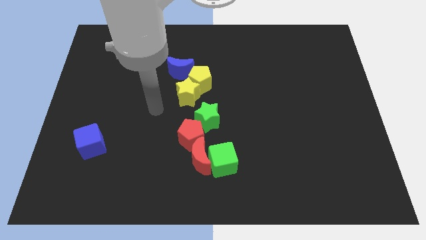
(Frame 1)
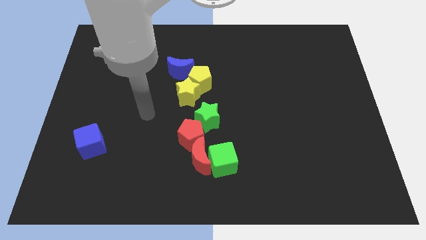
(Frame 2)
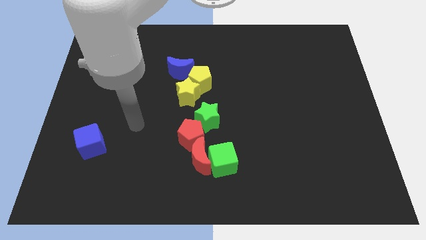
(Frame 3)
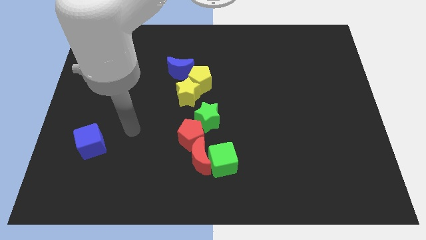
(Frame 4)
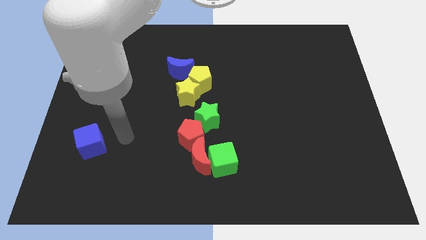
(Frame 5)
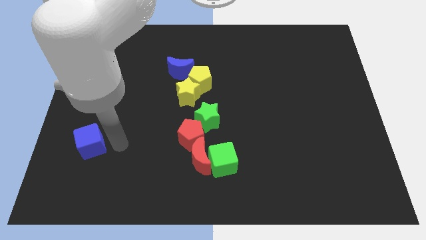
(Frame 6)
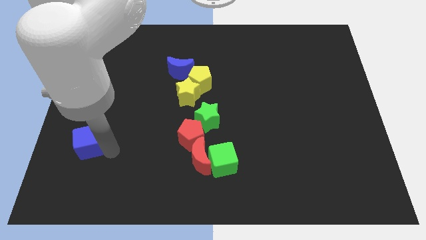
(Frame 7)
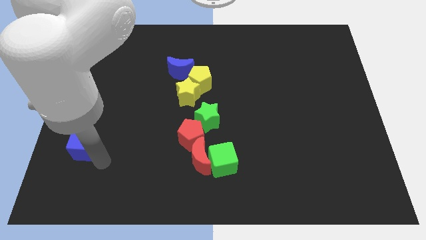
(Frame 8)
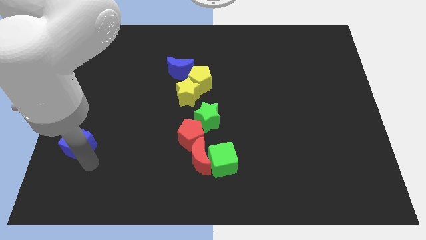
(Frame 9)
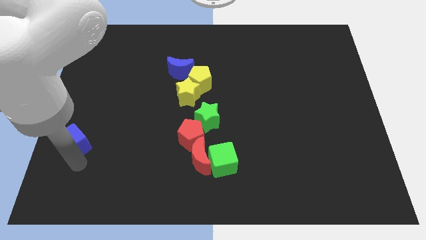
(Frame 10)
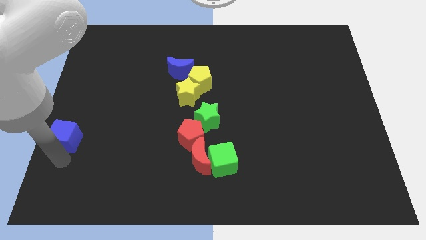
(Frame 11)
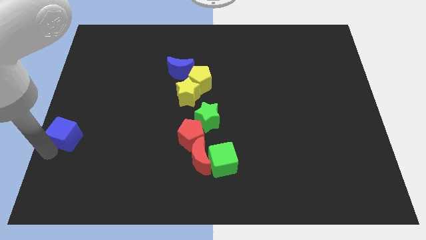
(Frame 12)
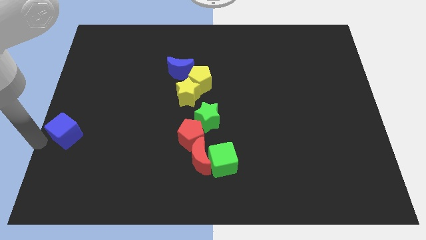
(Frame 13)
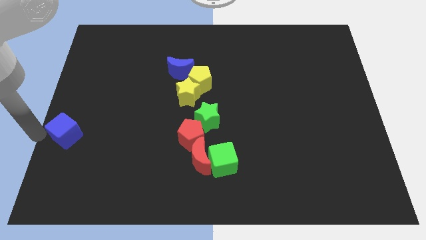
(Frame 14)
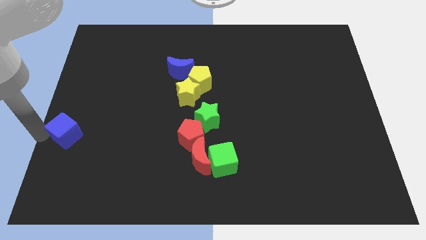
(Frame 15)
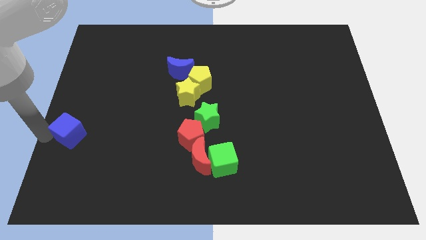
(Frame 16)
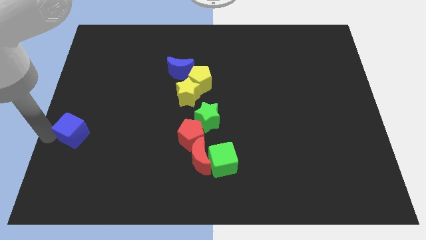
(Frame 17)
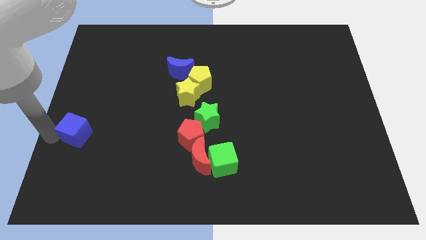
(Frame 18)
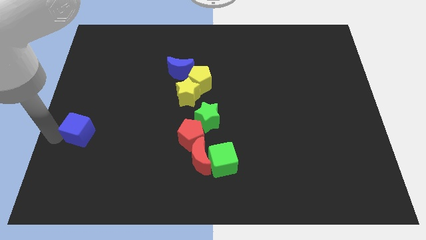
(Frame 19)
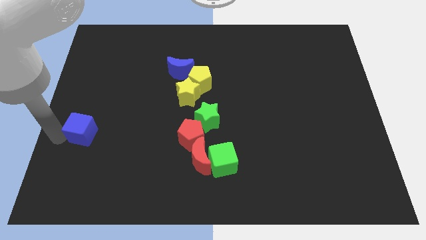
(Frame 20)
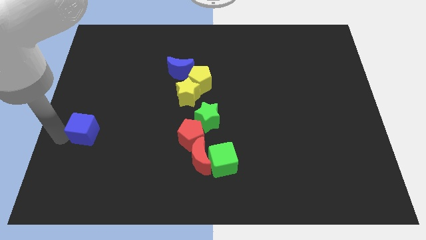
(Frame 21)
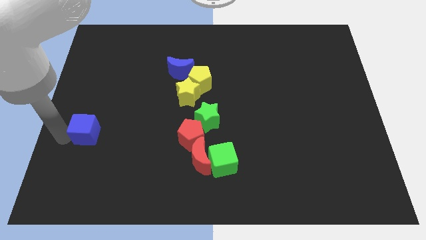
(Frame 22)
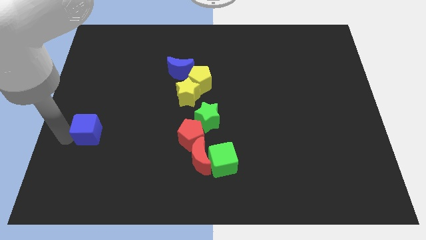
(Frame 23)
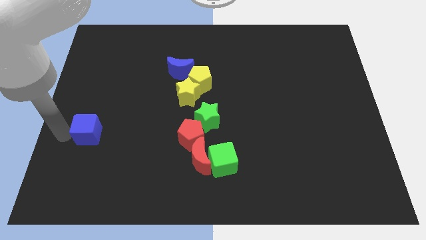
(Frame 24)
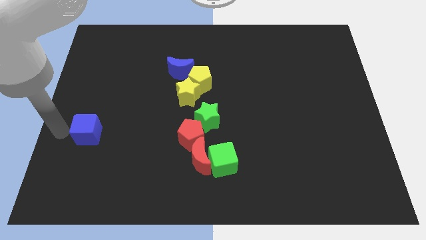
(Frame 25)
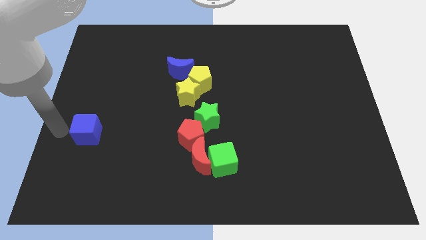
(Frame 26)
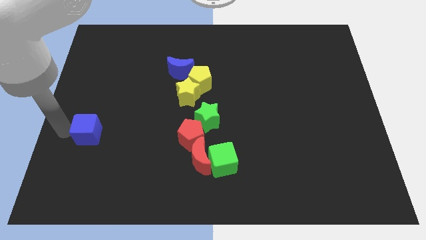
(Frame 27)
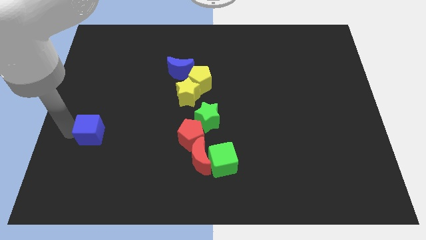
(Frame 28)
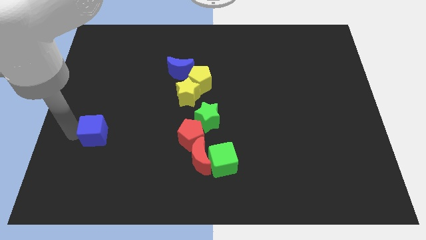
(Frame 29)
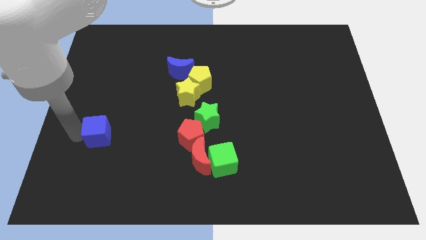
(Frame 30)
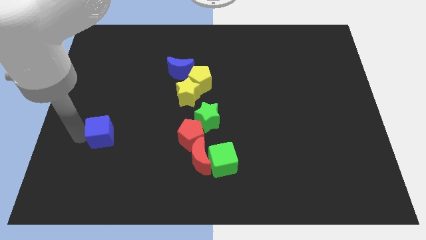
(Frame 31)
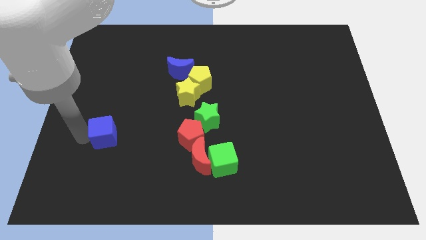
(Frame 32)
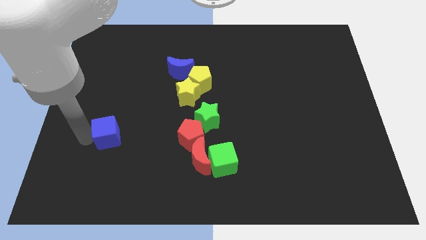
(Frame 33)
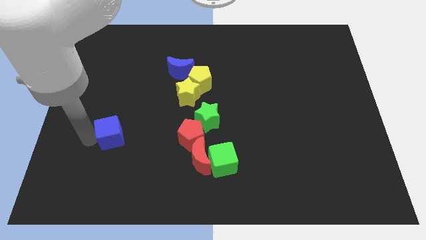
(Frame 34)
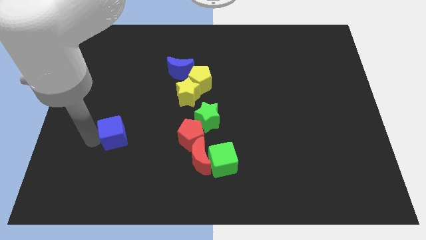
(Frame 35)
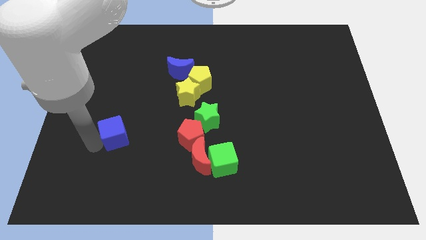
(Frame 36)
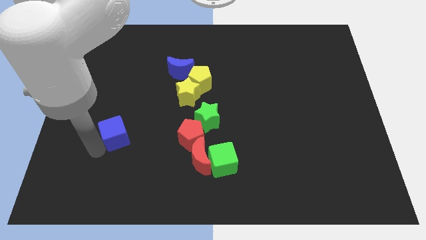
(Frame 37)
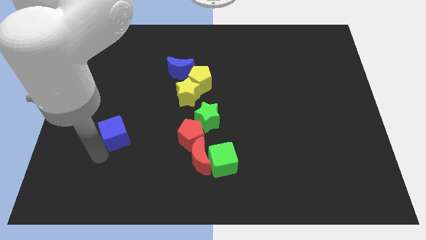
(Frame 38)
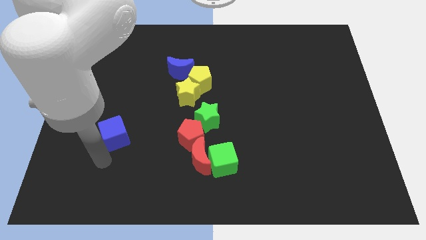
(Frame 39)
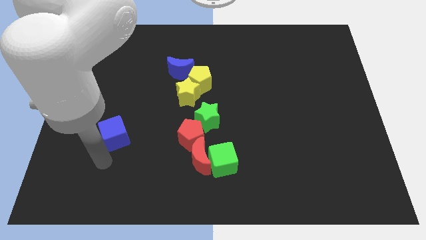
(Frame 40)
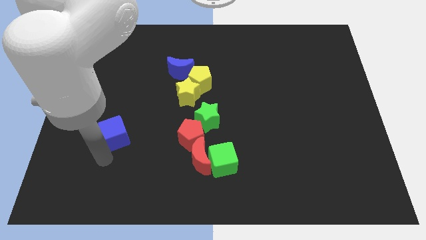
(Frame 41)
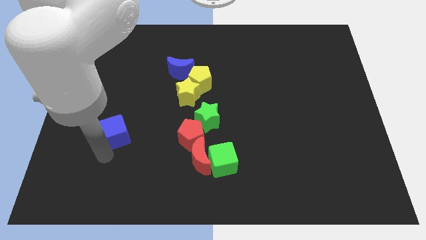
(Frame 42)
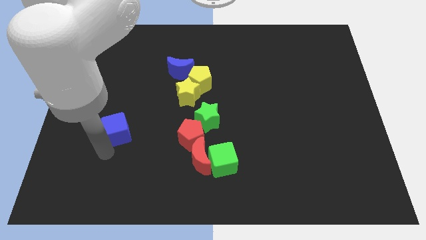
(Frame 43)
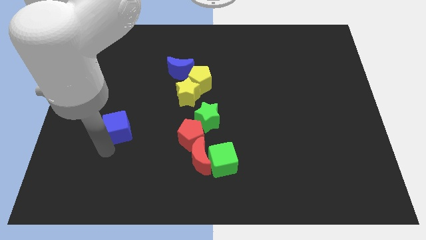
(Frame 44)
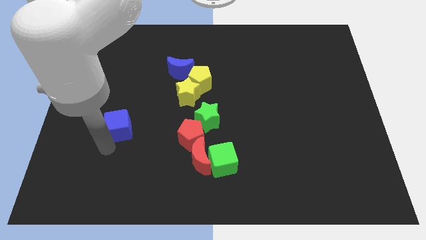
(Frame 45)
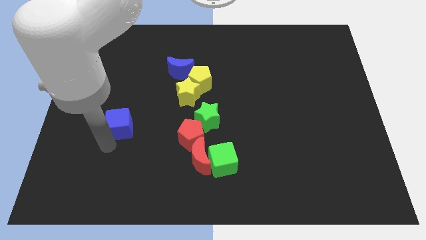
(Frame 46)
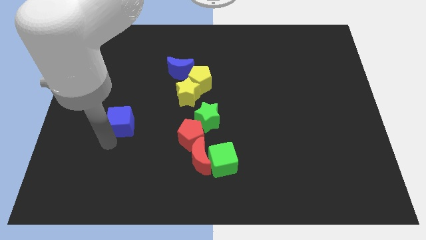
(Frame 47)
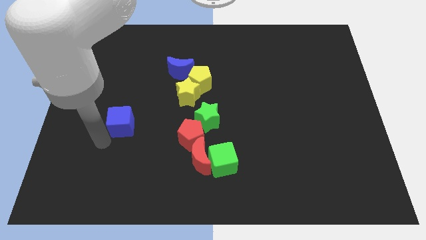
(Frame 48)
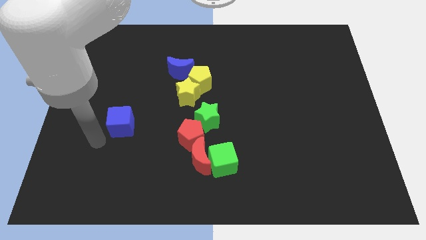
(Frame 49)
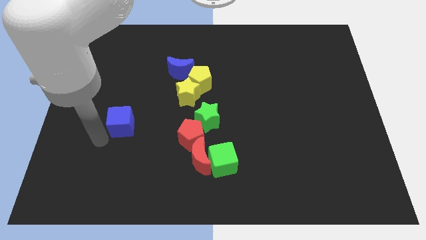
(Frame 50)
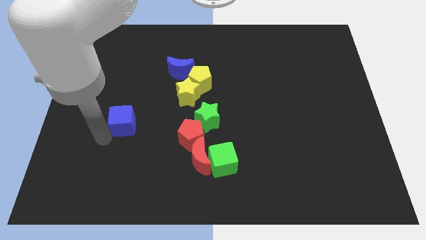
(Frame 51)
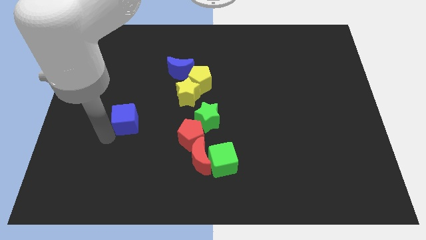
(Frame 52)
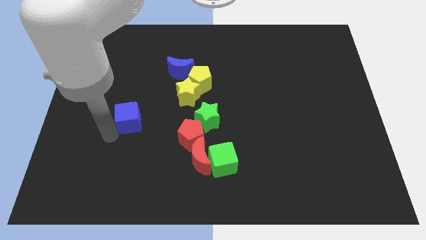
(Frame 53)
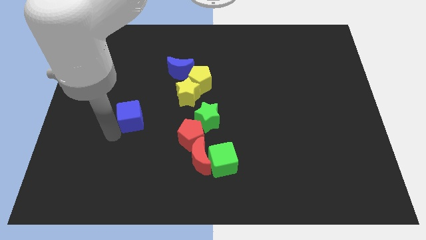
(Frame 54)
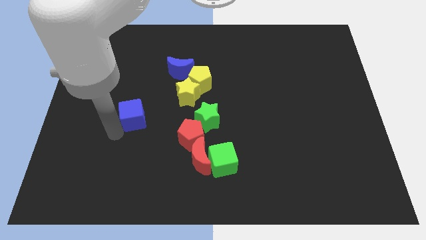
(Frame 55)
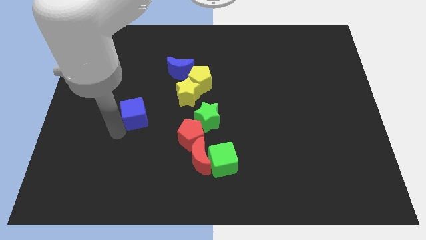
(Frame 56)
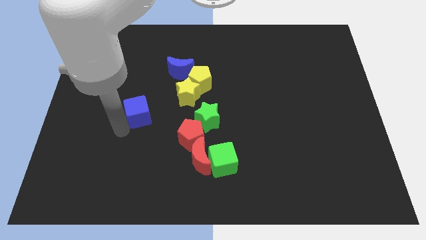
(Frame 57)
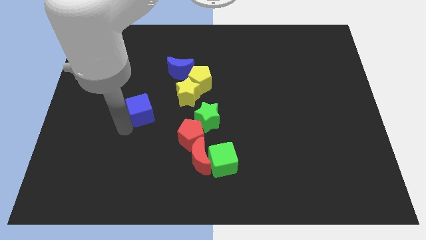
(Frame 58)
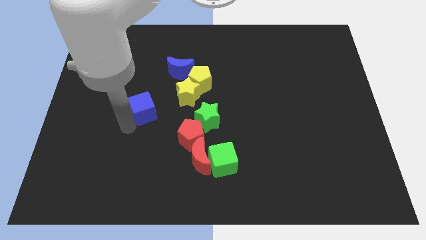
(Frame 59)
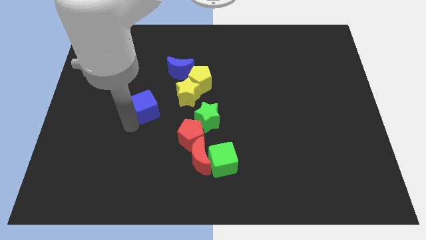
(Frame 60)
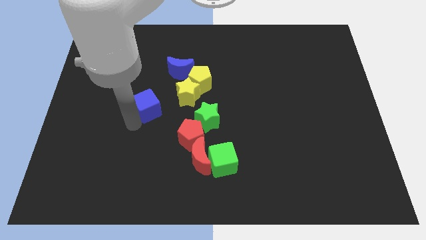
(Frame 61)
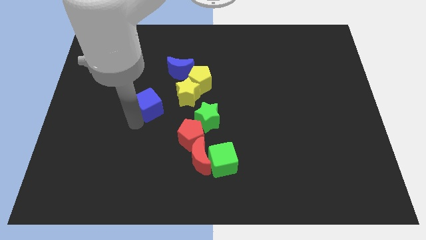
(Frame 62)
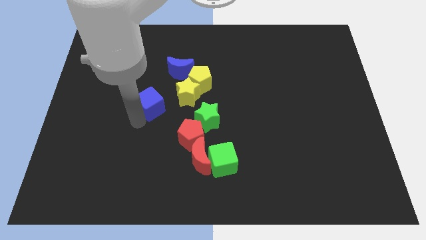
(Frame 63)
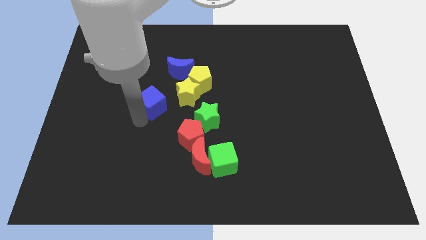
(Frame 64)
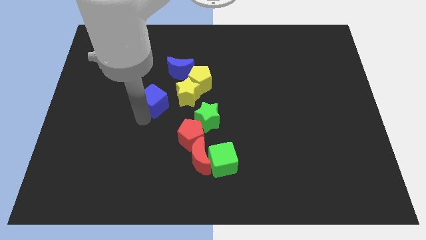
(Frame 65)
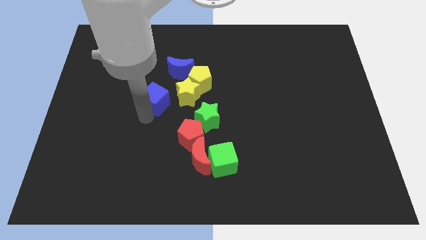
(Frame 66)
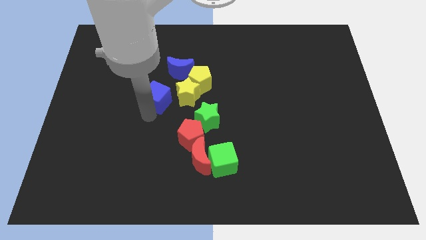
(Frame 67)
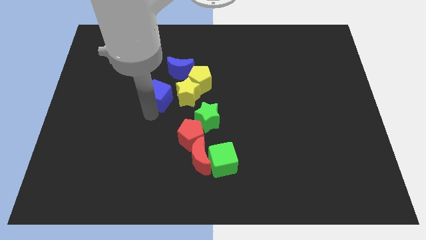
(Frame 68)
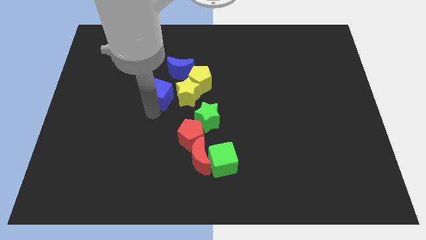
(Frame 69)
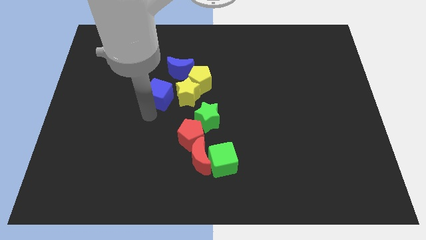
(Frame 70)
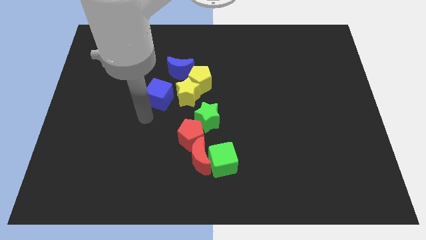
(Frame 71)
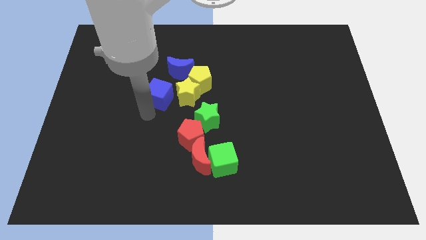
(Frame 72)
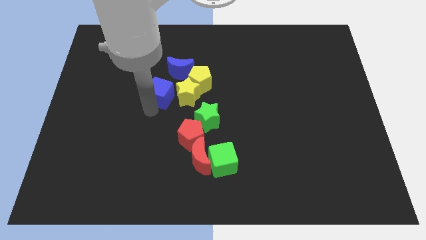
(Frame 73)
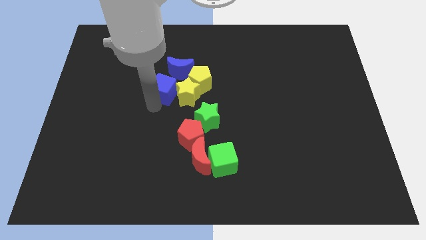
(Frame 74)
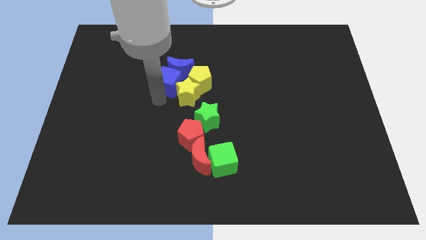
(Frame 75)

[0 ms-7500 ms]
push the blue cube next to the blue moon

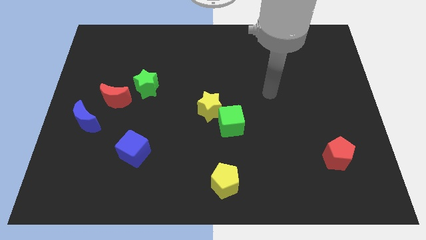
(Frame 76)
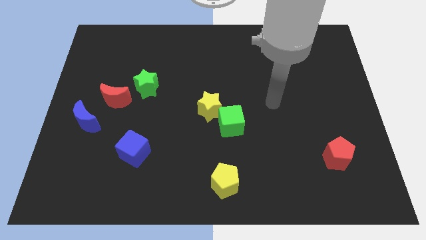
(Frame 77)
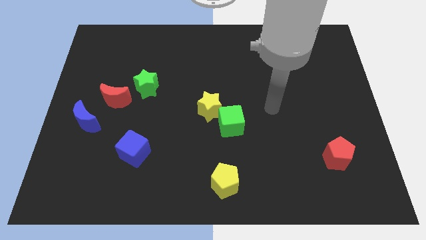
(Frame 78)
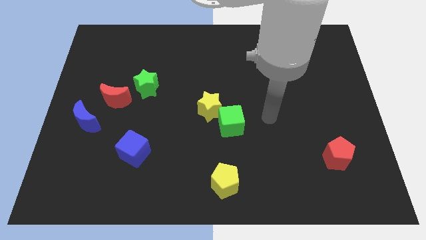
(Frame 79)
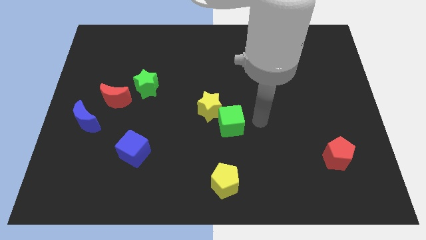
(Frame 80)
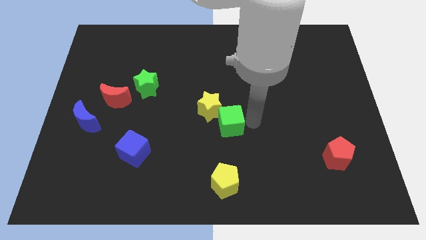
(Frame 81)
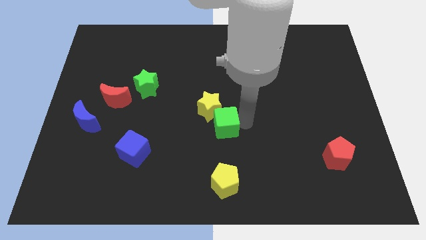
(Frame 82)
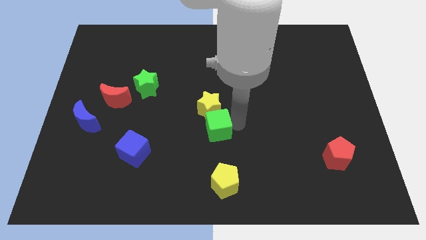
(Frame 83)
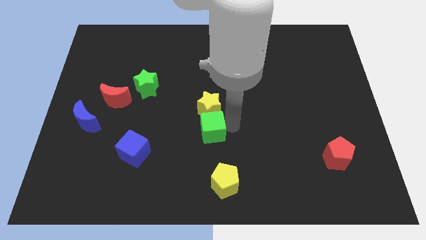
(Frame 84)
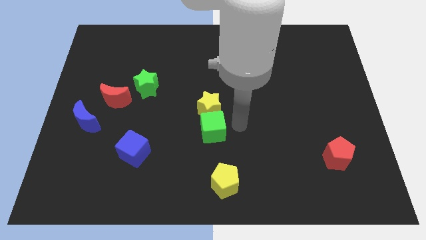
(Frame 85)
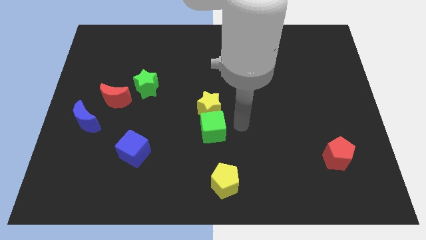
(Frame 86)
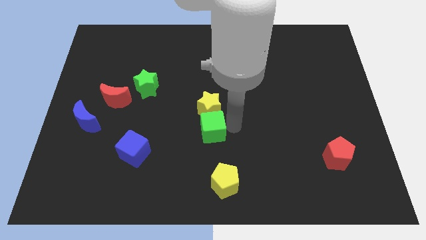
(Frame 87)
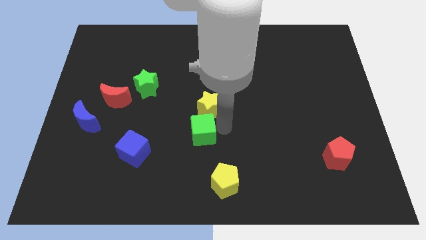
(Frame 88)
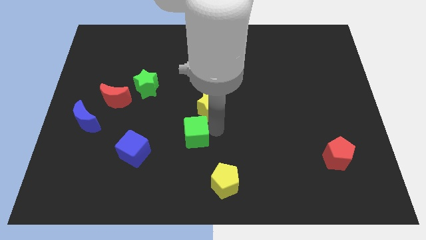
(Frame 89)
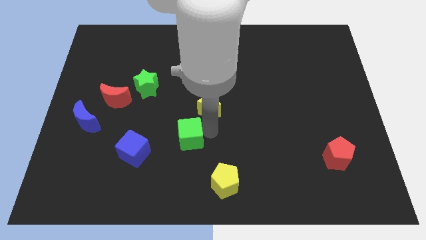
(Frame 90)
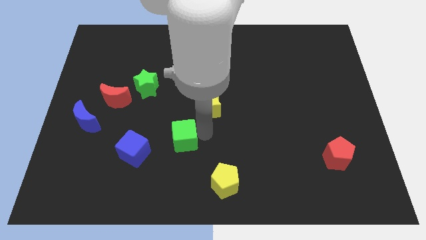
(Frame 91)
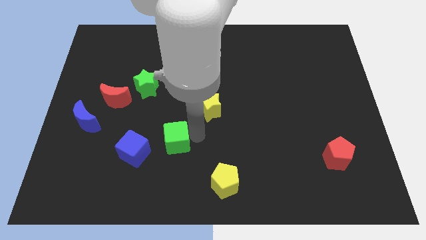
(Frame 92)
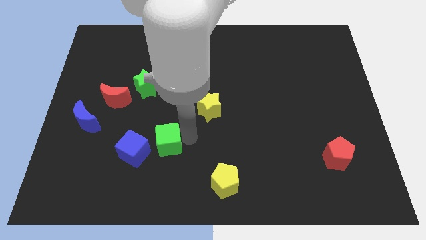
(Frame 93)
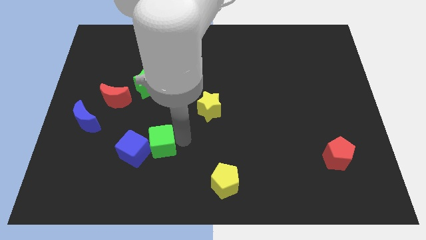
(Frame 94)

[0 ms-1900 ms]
slide the green cube towards the blue cube
